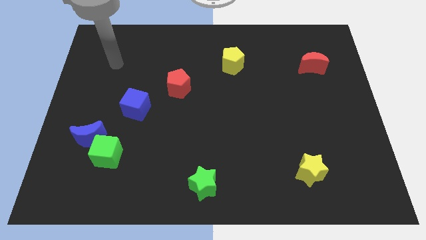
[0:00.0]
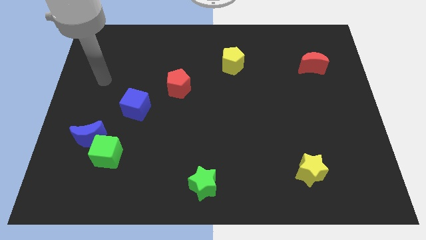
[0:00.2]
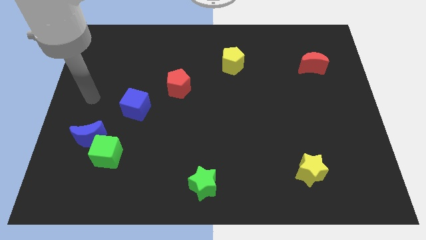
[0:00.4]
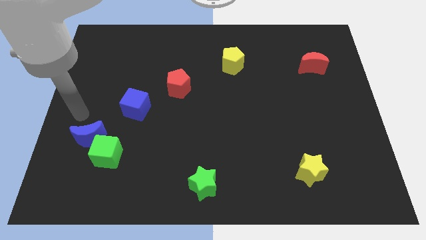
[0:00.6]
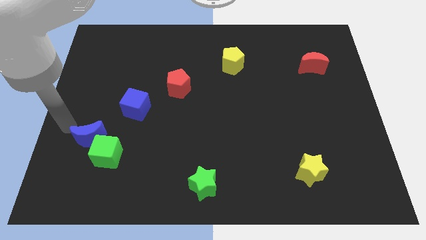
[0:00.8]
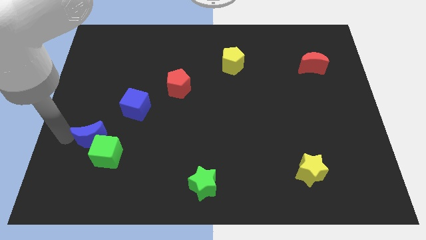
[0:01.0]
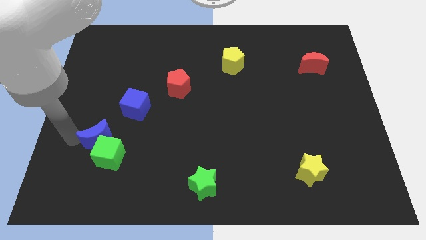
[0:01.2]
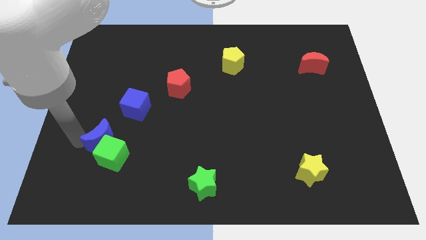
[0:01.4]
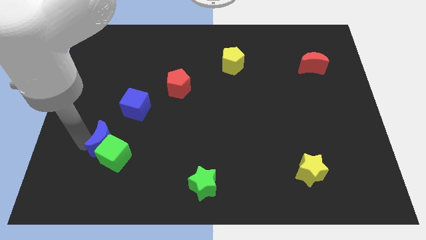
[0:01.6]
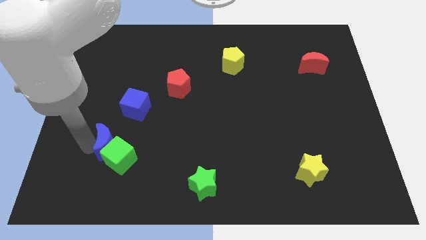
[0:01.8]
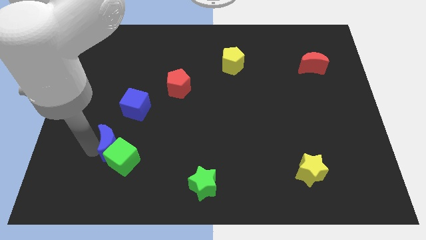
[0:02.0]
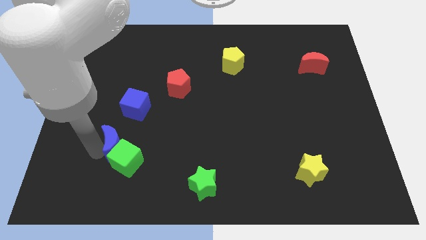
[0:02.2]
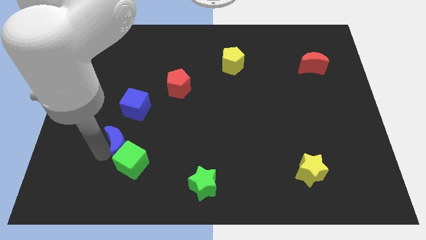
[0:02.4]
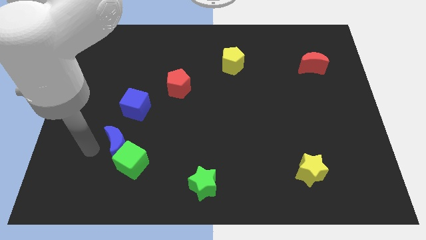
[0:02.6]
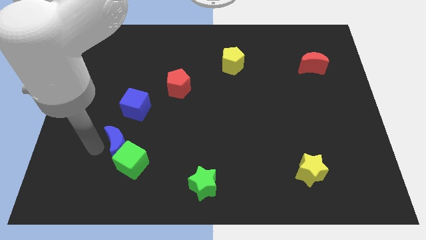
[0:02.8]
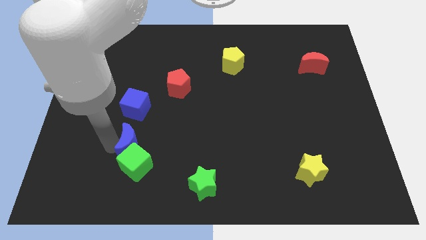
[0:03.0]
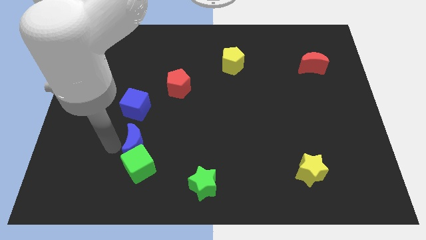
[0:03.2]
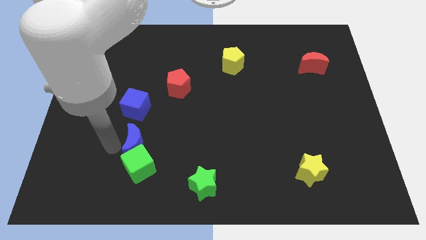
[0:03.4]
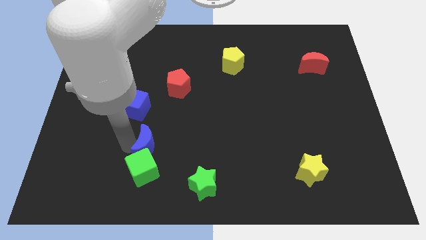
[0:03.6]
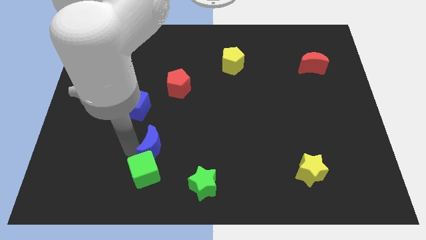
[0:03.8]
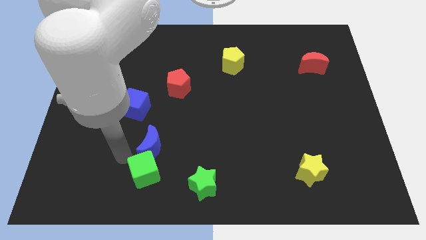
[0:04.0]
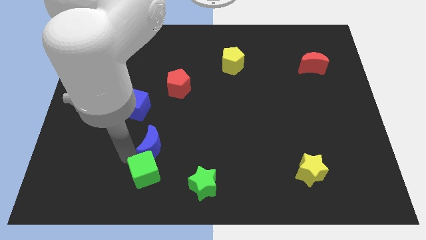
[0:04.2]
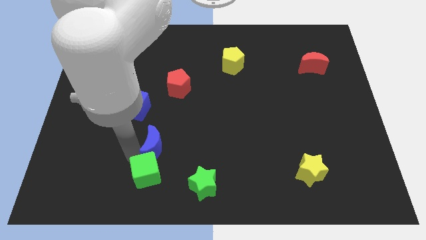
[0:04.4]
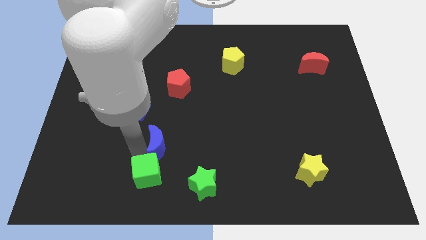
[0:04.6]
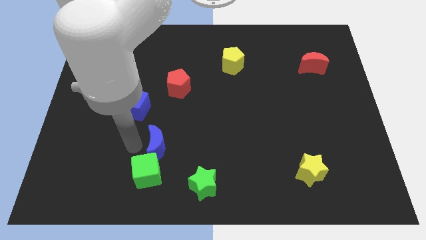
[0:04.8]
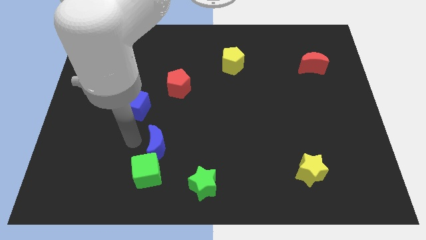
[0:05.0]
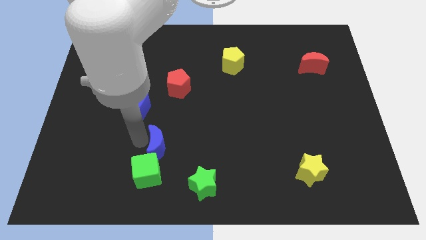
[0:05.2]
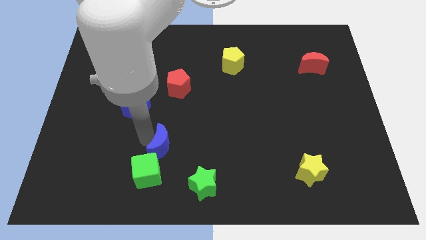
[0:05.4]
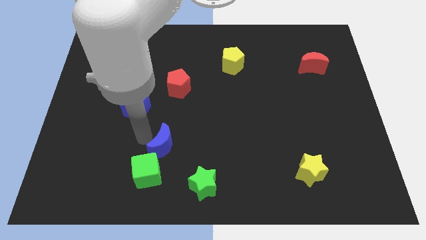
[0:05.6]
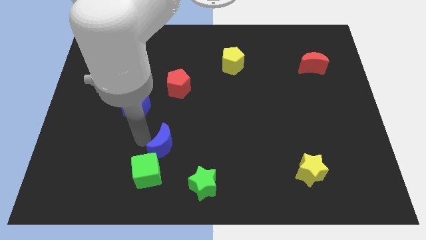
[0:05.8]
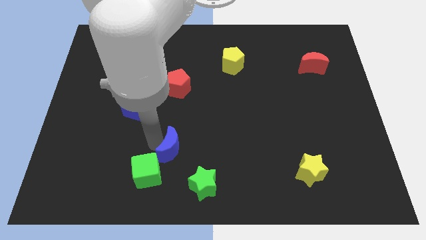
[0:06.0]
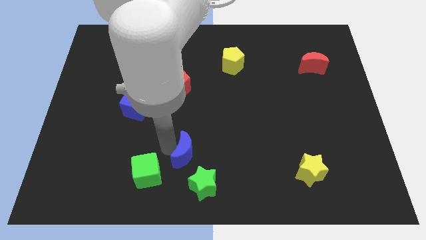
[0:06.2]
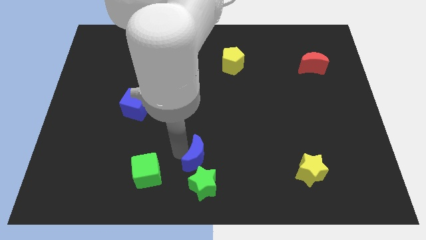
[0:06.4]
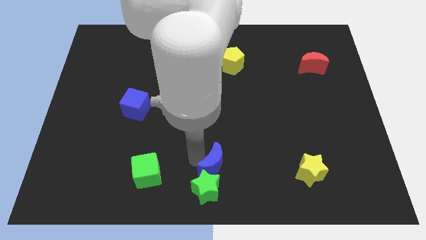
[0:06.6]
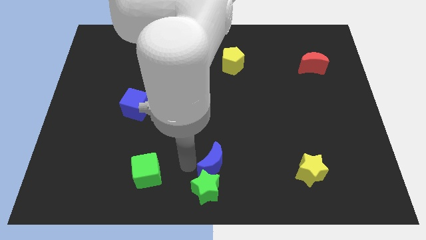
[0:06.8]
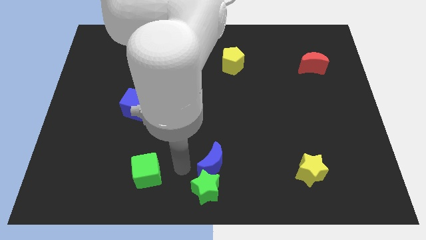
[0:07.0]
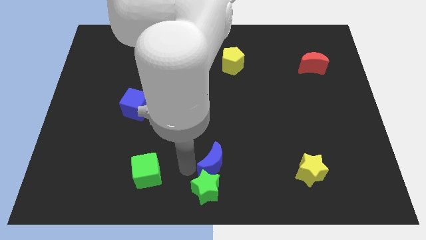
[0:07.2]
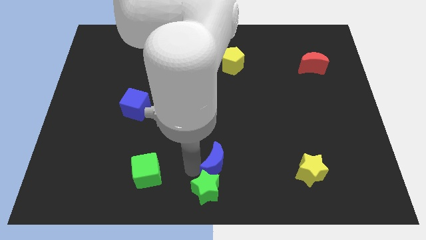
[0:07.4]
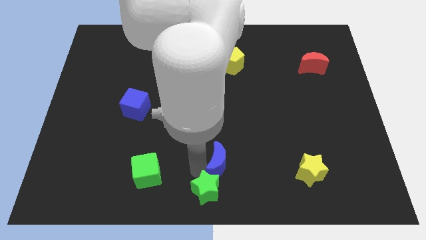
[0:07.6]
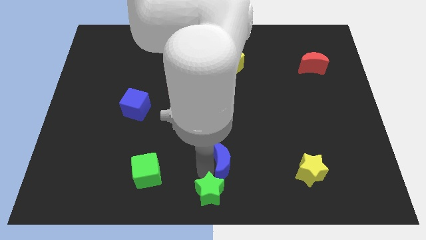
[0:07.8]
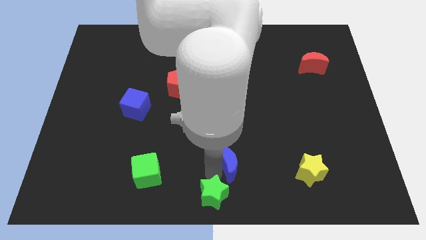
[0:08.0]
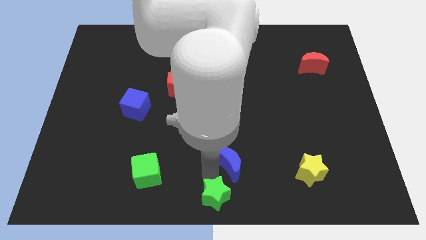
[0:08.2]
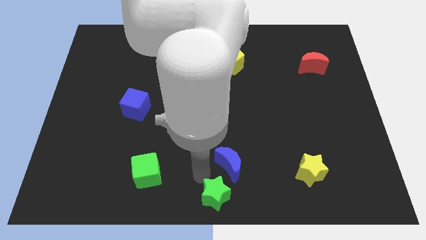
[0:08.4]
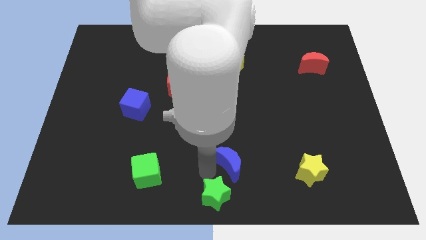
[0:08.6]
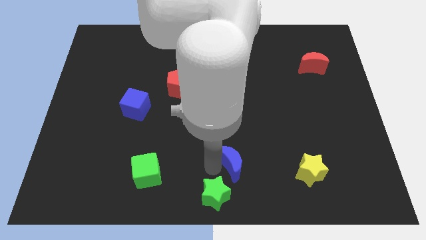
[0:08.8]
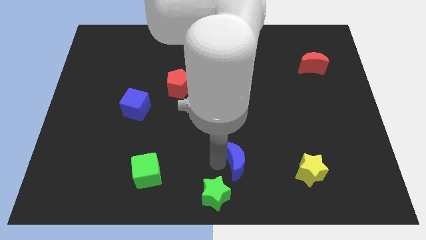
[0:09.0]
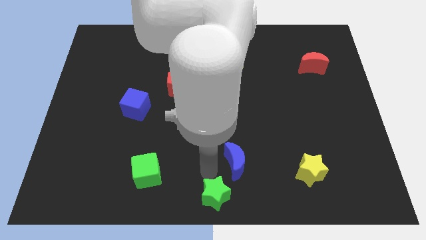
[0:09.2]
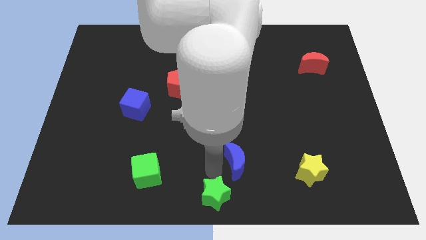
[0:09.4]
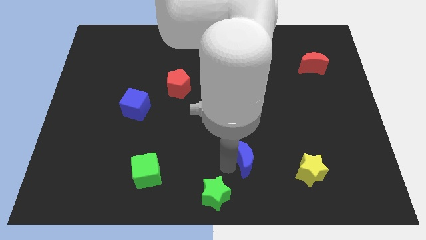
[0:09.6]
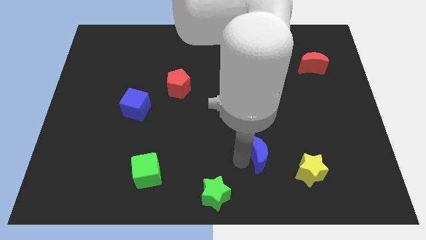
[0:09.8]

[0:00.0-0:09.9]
push the blue moon diagonally up and to the left of the yellow star

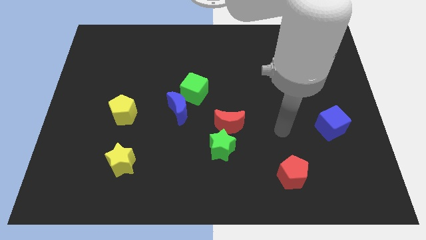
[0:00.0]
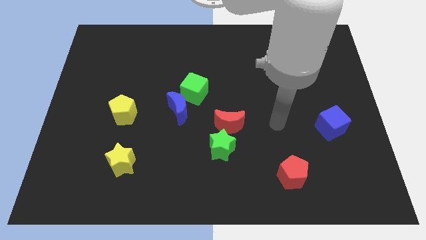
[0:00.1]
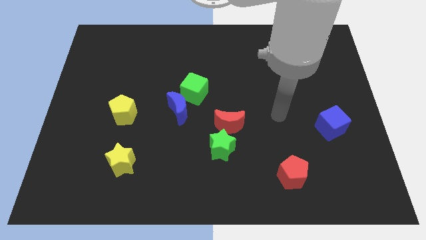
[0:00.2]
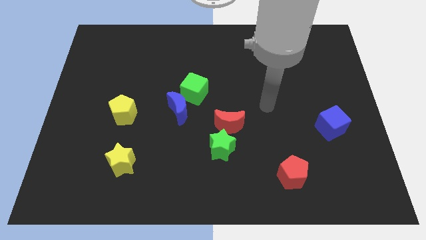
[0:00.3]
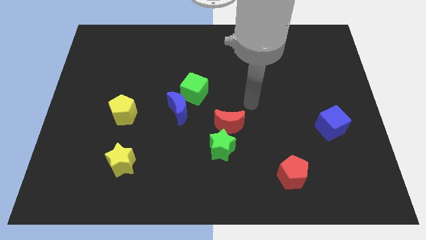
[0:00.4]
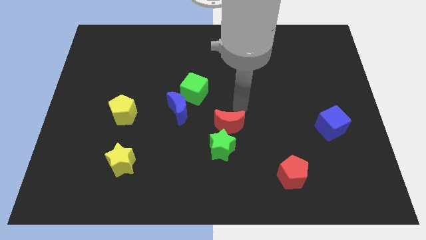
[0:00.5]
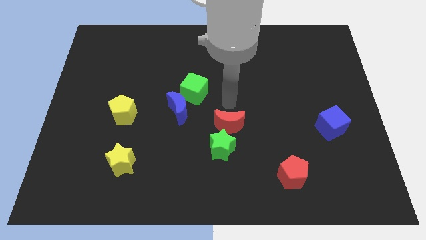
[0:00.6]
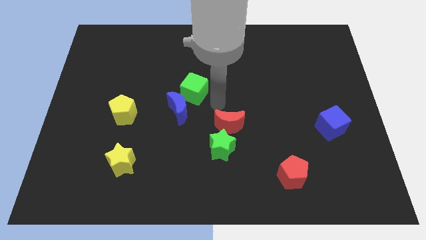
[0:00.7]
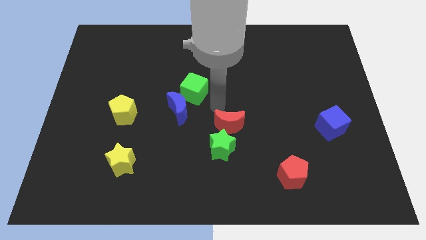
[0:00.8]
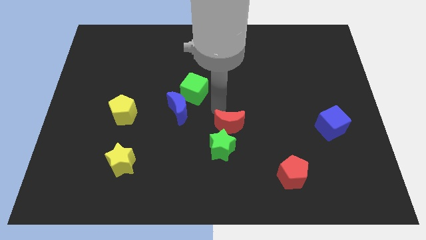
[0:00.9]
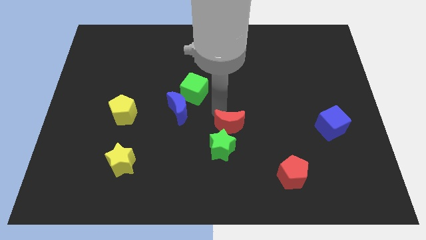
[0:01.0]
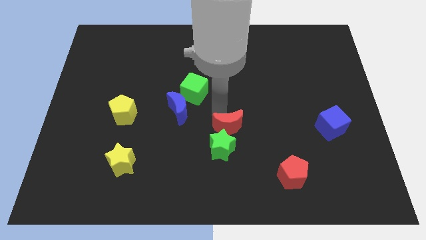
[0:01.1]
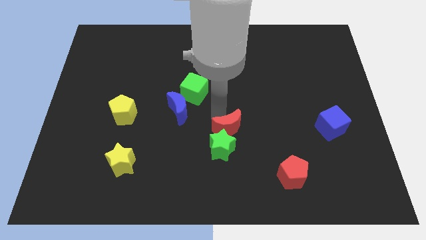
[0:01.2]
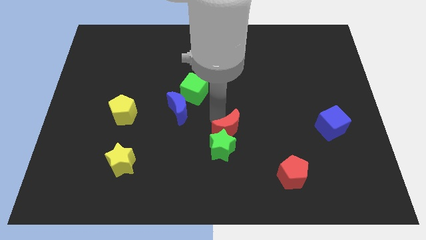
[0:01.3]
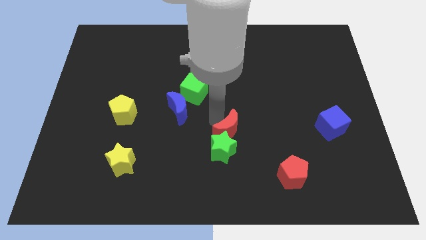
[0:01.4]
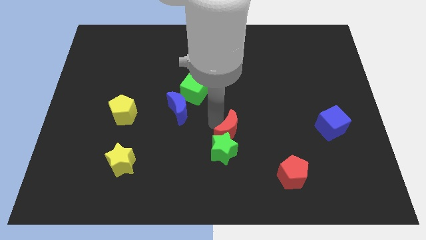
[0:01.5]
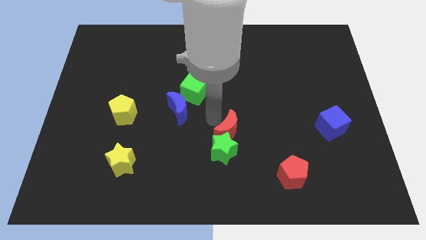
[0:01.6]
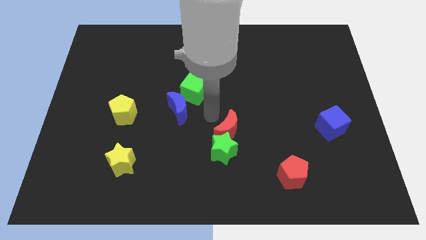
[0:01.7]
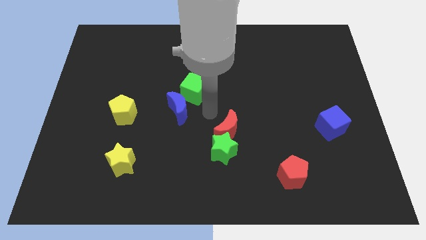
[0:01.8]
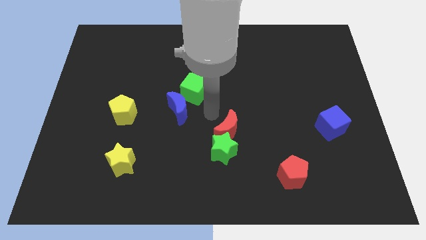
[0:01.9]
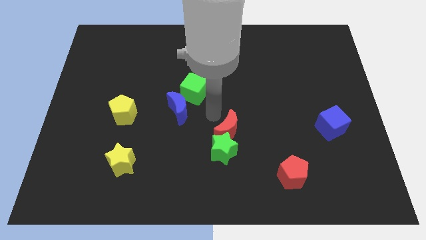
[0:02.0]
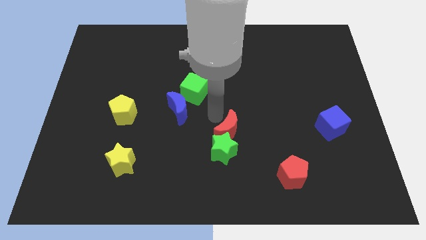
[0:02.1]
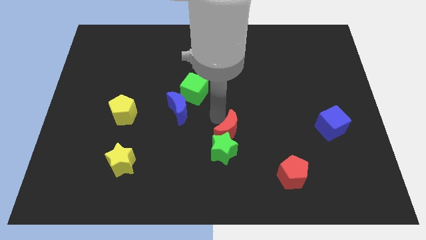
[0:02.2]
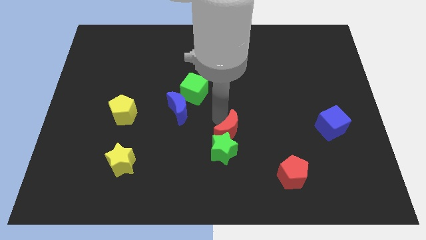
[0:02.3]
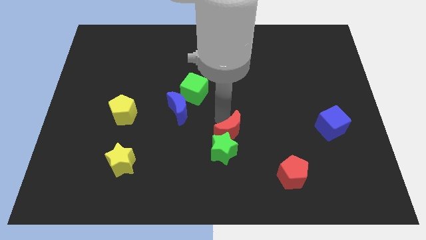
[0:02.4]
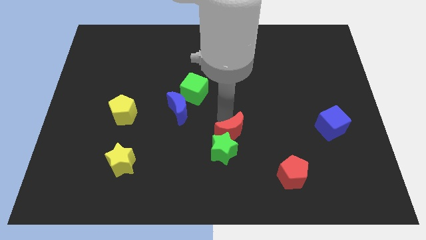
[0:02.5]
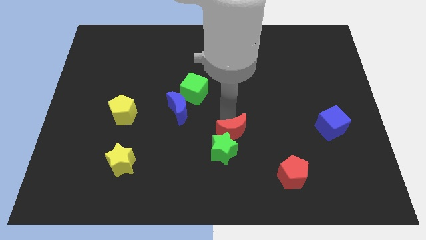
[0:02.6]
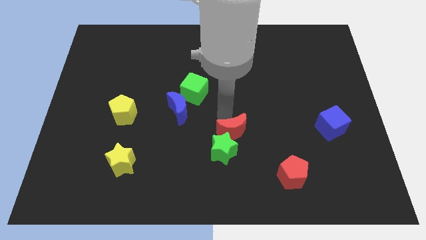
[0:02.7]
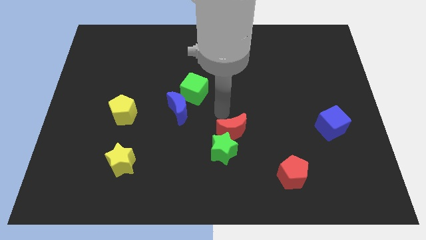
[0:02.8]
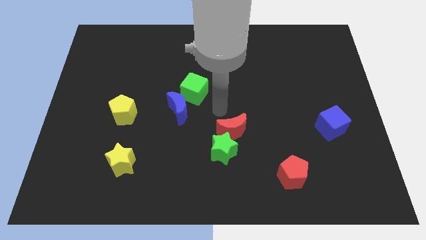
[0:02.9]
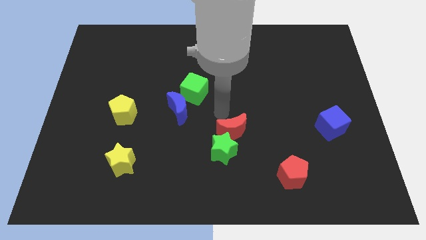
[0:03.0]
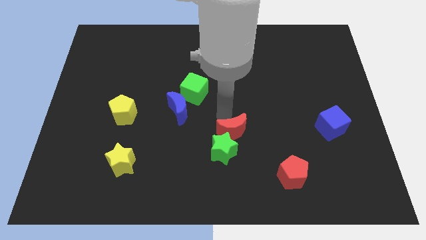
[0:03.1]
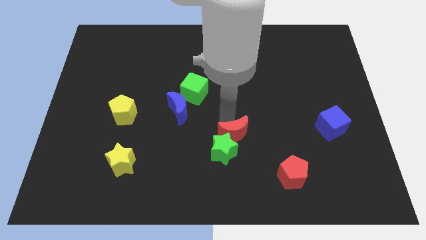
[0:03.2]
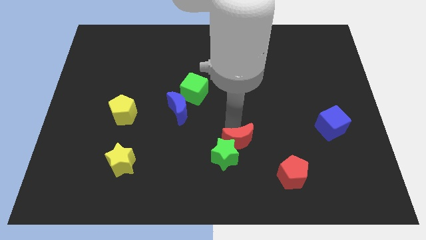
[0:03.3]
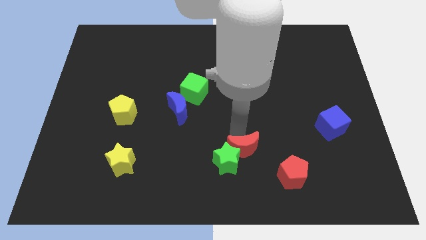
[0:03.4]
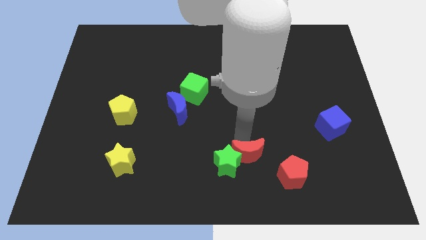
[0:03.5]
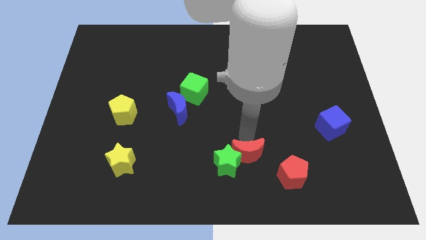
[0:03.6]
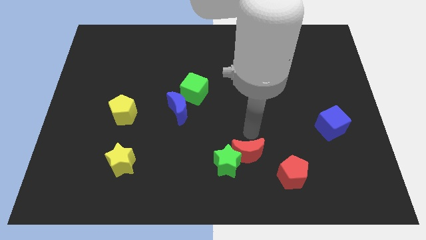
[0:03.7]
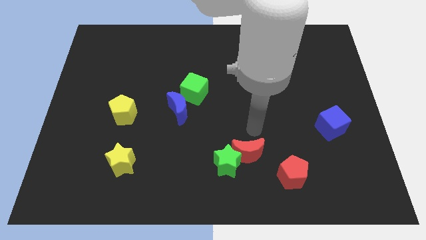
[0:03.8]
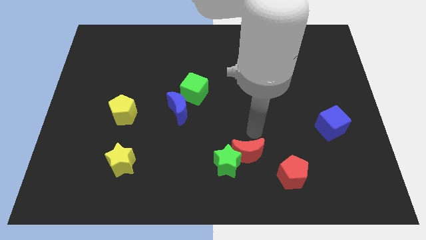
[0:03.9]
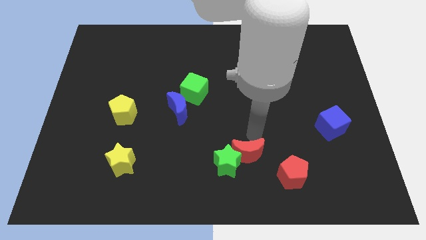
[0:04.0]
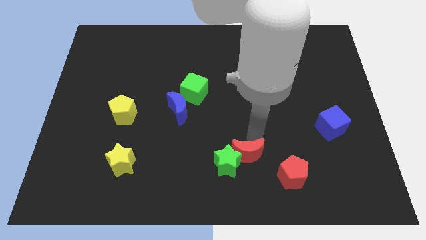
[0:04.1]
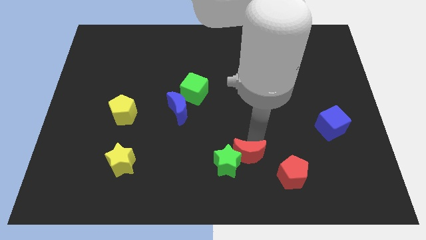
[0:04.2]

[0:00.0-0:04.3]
put the red moon to the left of the red pentagon
